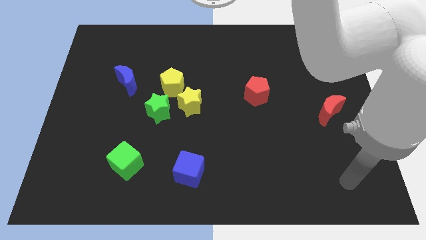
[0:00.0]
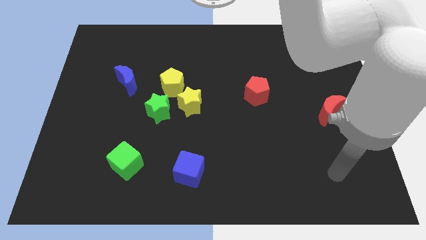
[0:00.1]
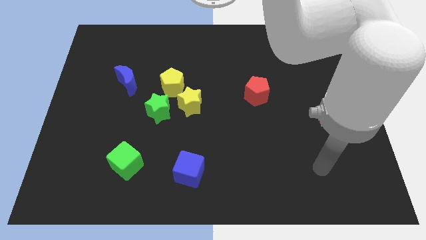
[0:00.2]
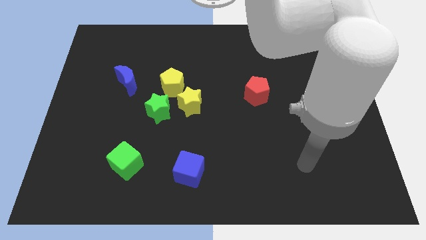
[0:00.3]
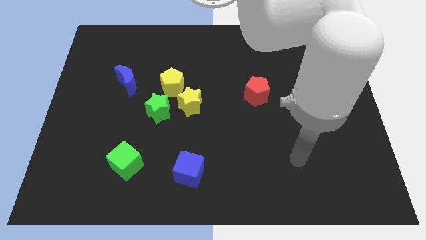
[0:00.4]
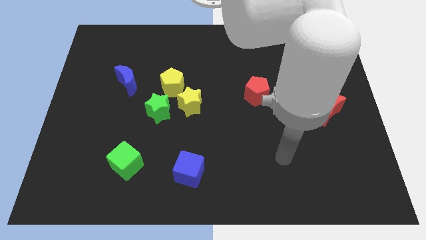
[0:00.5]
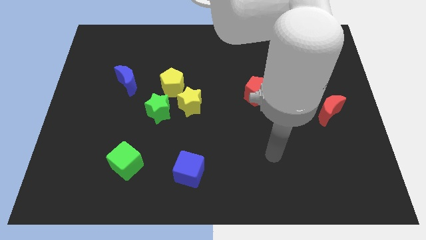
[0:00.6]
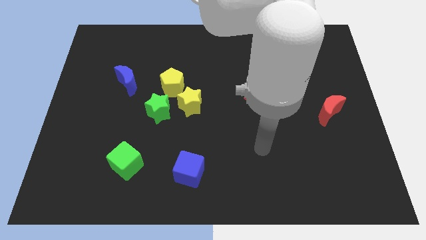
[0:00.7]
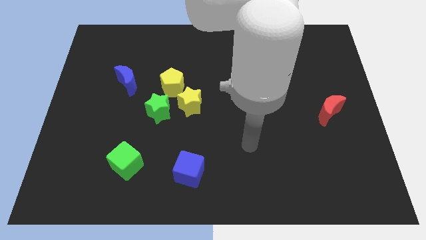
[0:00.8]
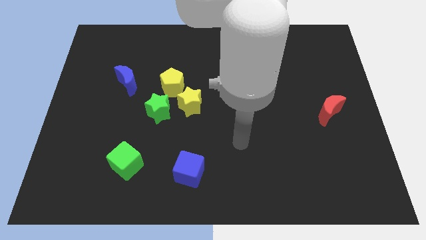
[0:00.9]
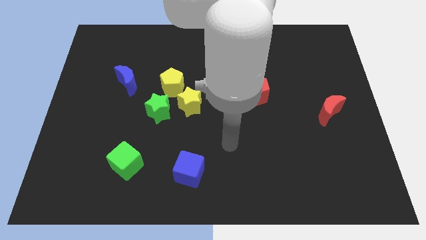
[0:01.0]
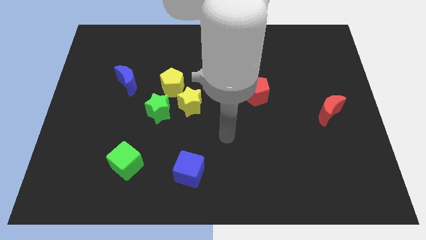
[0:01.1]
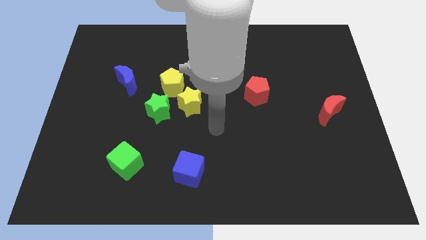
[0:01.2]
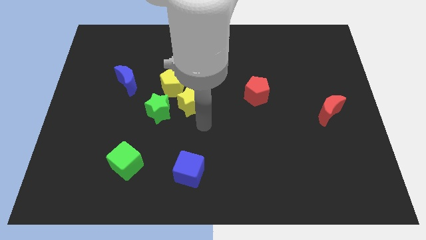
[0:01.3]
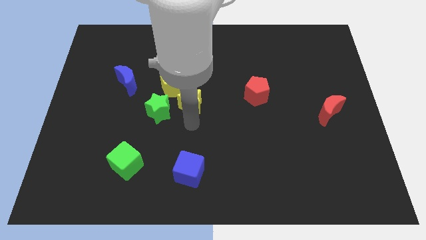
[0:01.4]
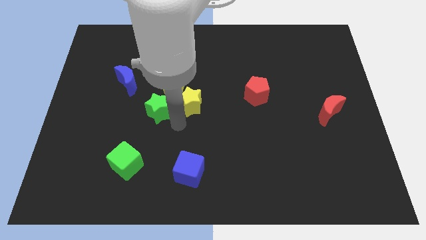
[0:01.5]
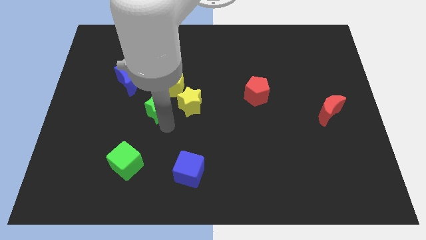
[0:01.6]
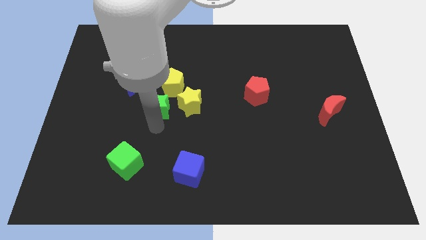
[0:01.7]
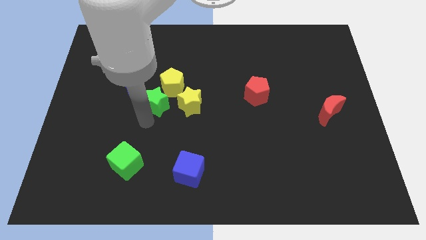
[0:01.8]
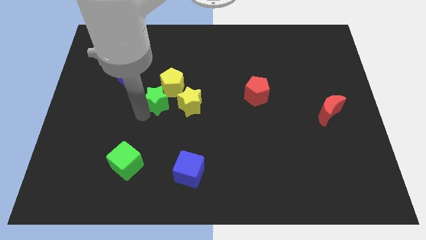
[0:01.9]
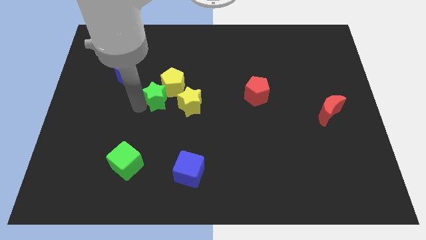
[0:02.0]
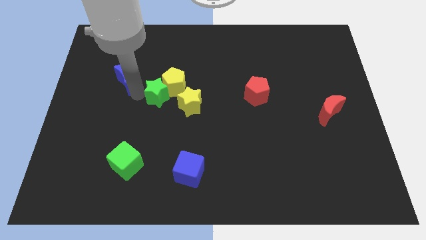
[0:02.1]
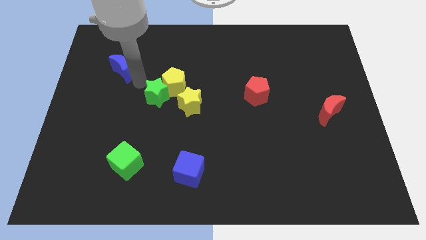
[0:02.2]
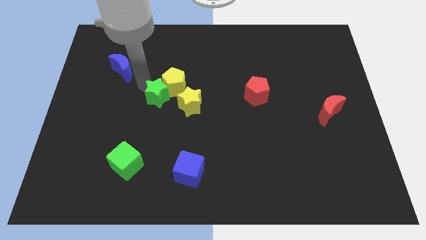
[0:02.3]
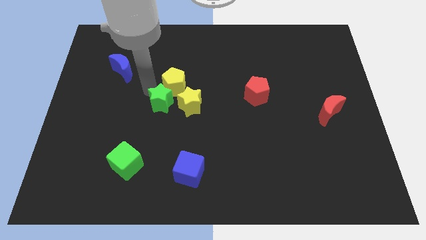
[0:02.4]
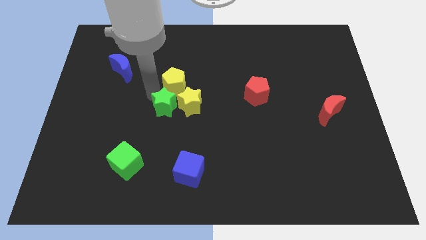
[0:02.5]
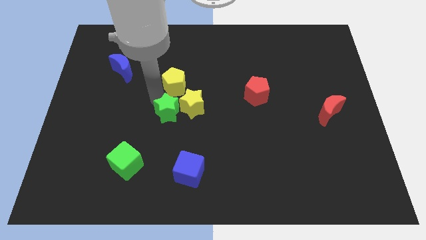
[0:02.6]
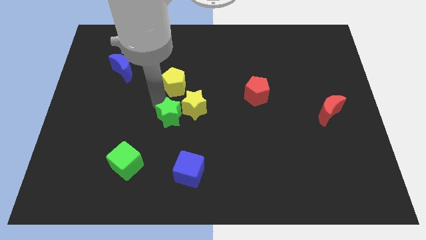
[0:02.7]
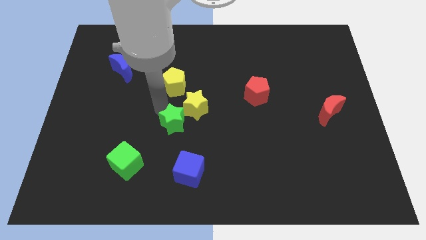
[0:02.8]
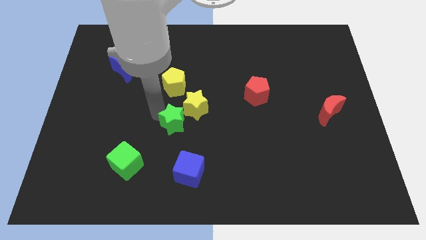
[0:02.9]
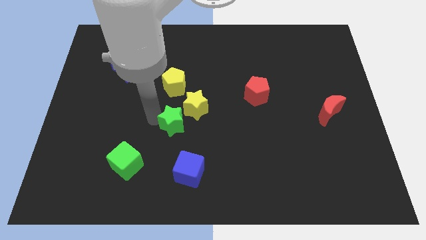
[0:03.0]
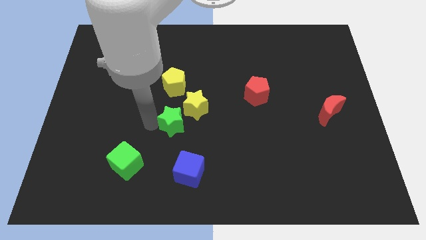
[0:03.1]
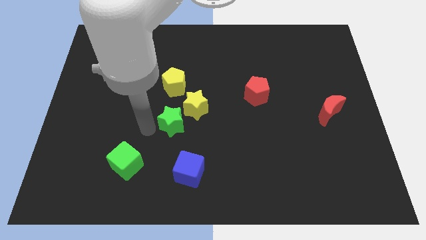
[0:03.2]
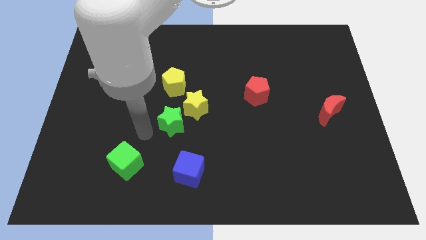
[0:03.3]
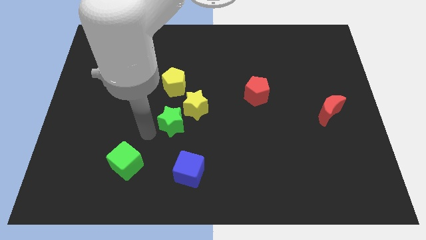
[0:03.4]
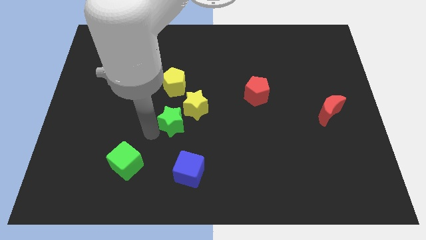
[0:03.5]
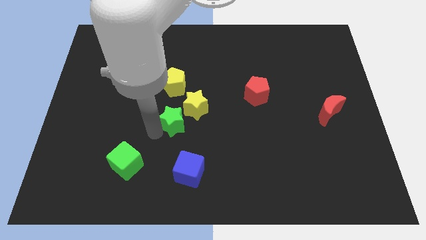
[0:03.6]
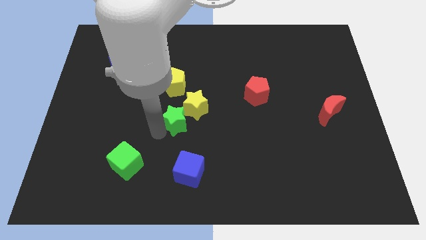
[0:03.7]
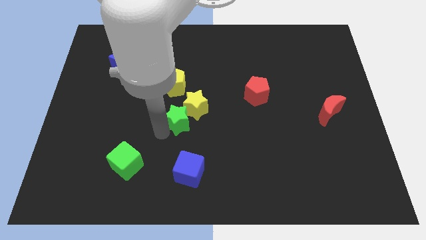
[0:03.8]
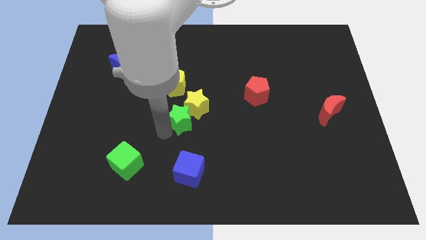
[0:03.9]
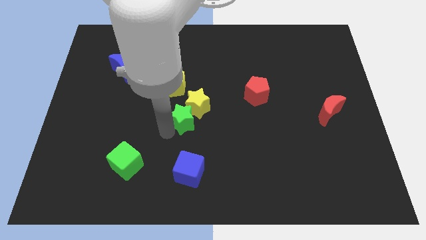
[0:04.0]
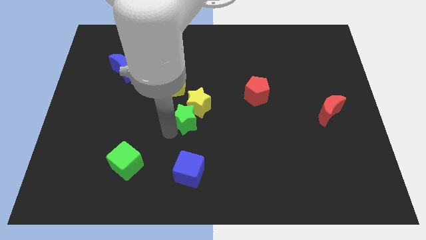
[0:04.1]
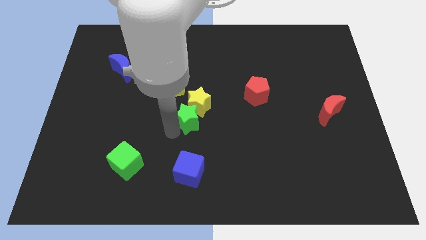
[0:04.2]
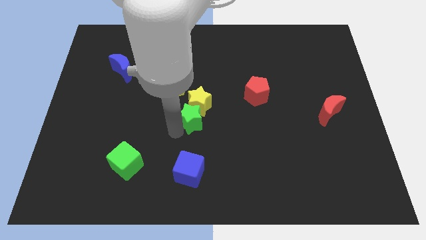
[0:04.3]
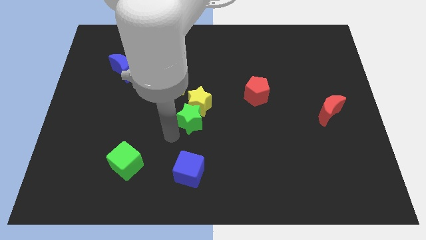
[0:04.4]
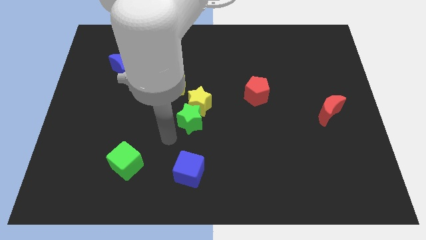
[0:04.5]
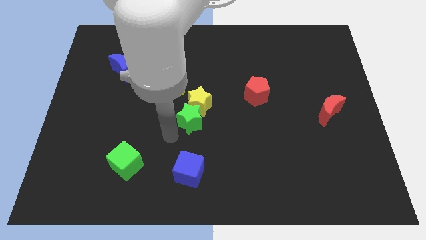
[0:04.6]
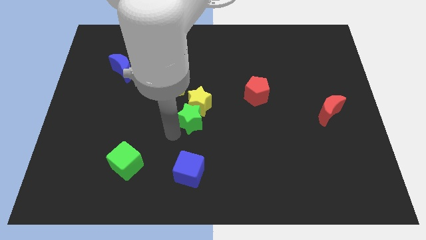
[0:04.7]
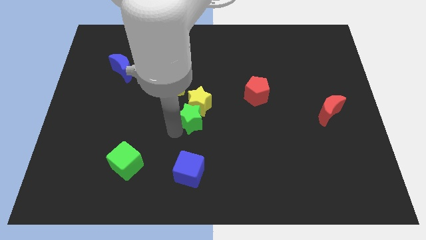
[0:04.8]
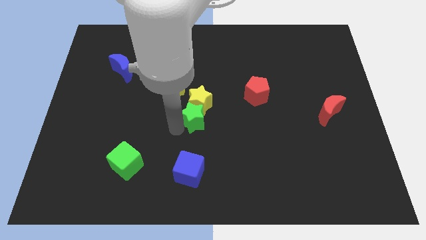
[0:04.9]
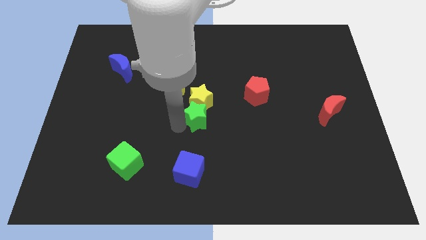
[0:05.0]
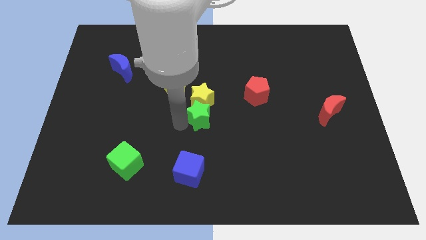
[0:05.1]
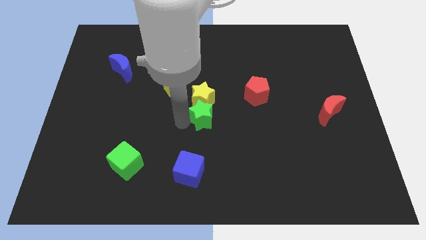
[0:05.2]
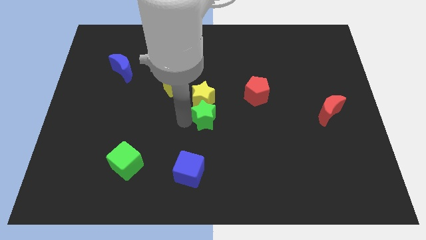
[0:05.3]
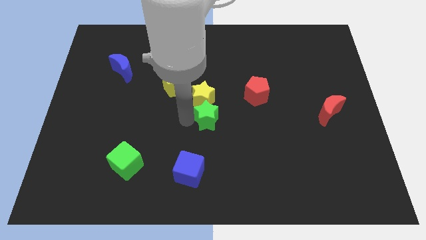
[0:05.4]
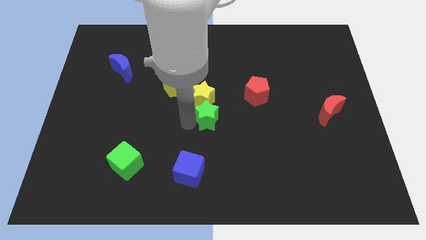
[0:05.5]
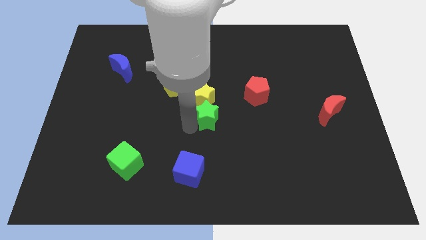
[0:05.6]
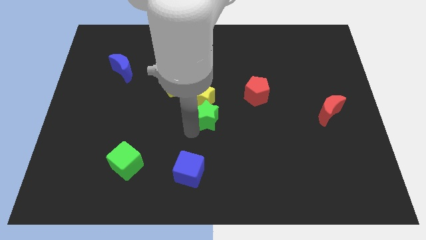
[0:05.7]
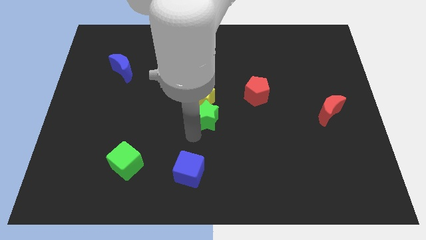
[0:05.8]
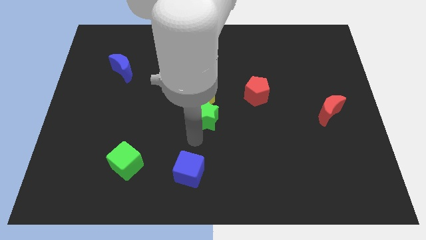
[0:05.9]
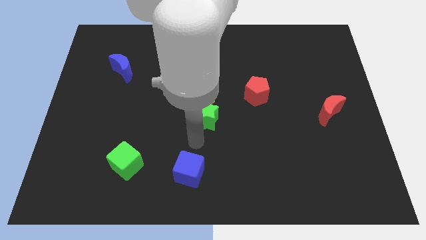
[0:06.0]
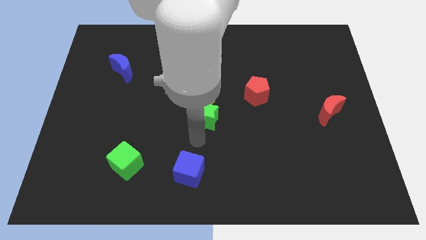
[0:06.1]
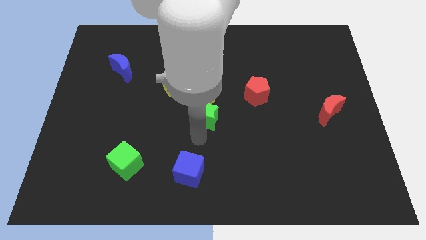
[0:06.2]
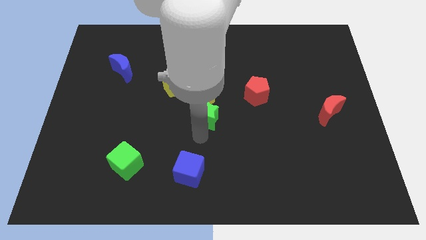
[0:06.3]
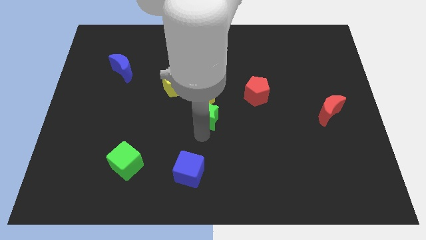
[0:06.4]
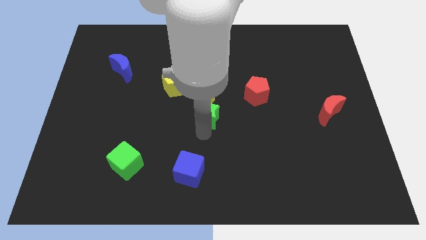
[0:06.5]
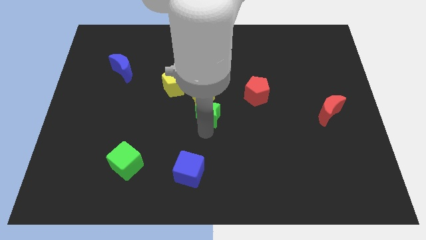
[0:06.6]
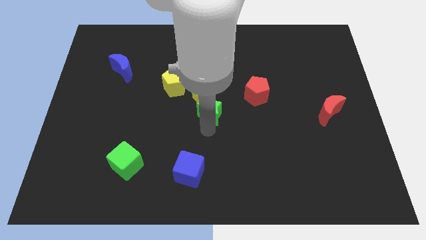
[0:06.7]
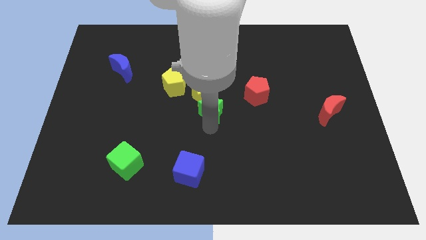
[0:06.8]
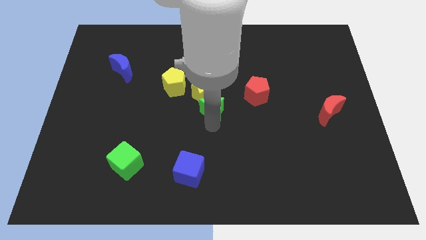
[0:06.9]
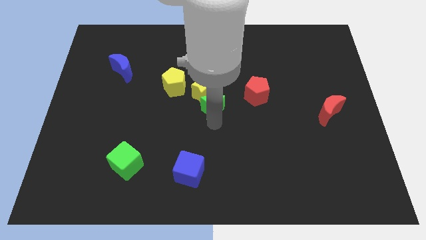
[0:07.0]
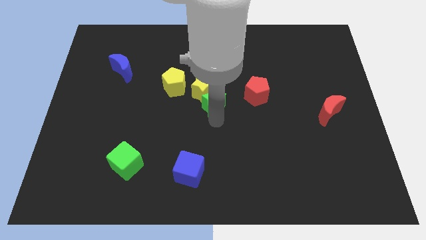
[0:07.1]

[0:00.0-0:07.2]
slightly move the green star up and to the right

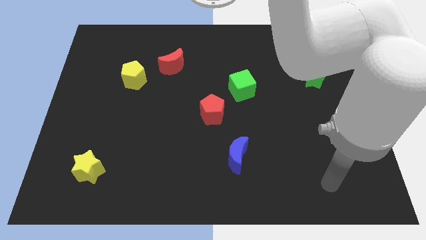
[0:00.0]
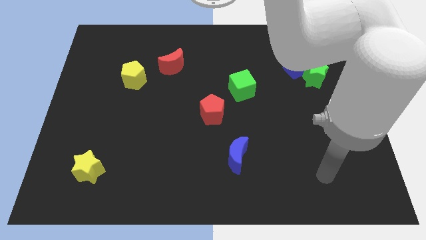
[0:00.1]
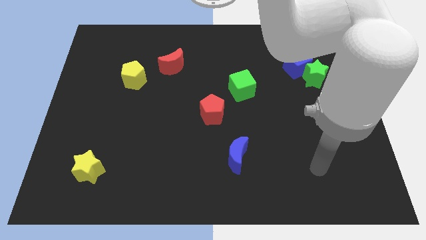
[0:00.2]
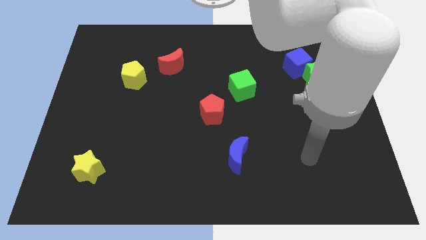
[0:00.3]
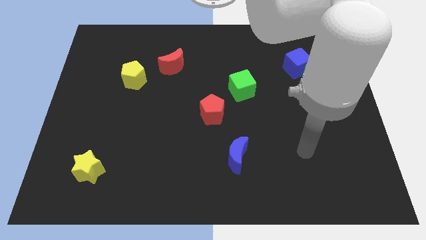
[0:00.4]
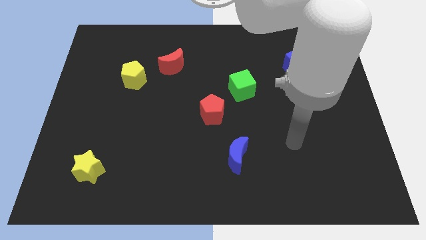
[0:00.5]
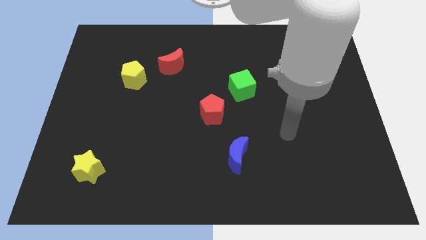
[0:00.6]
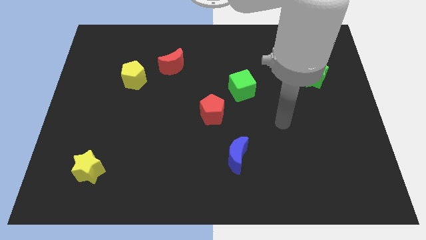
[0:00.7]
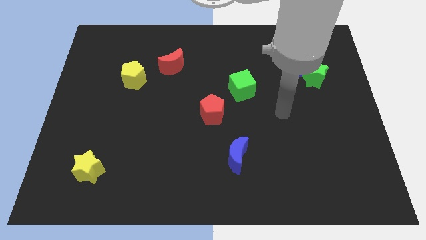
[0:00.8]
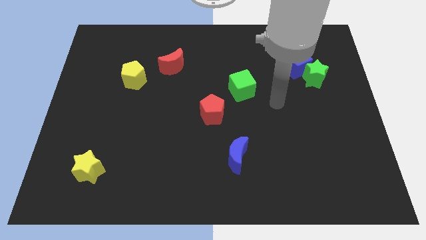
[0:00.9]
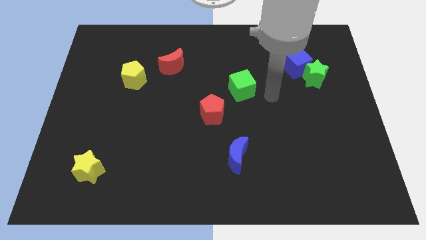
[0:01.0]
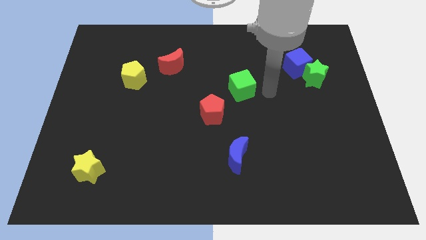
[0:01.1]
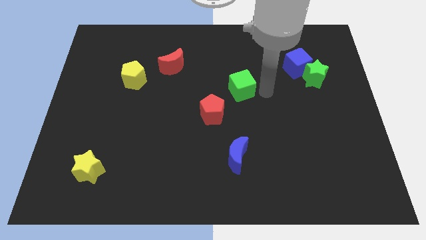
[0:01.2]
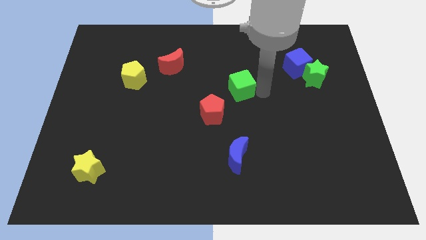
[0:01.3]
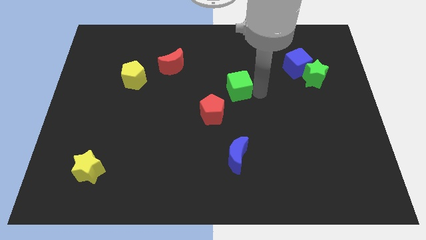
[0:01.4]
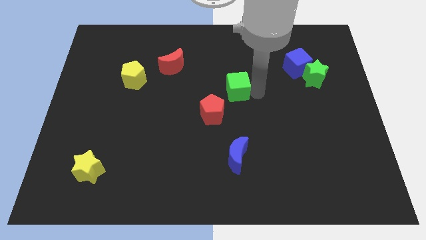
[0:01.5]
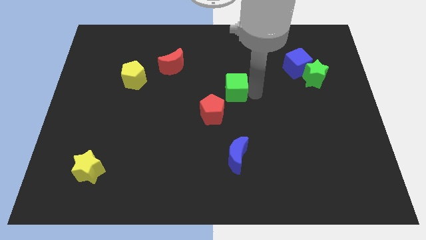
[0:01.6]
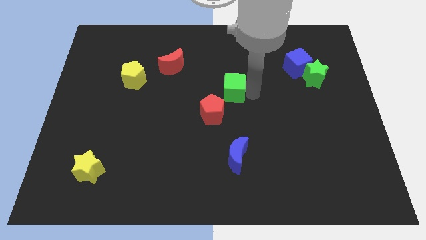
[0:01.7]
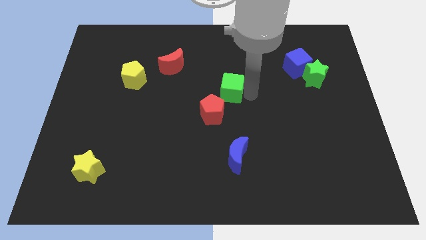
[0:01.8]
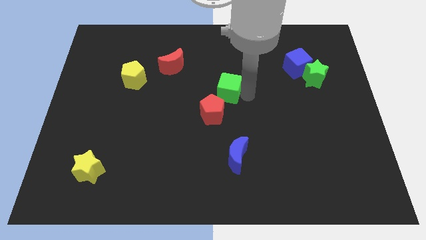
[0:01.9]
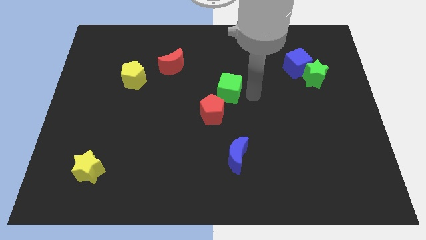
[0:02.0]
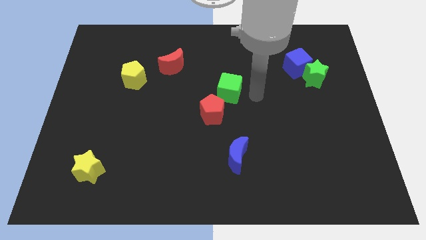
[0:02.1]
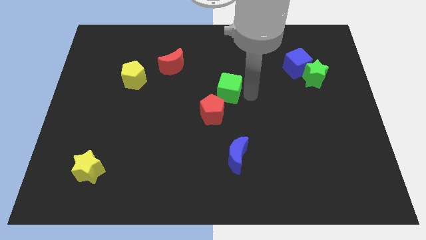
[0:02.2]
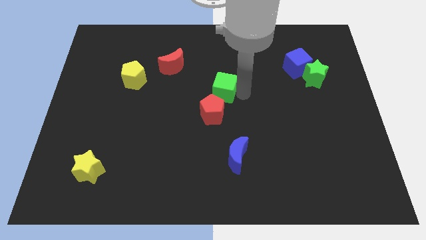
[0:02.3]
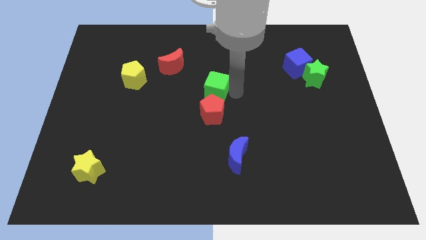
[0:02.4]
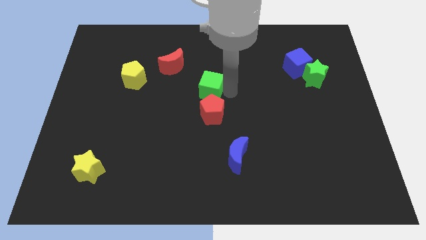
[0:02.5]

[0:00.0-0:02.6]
slide the green cube left a bit
